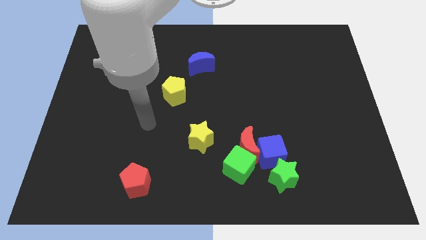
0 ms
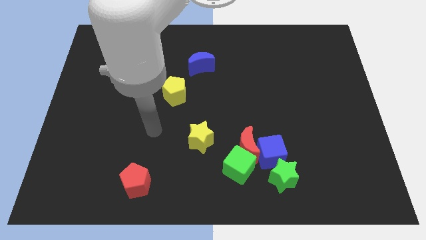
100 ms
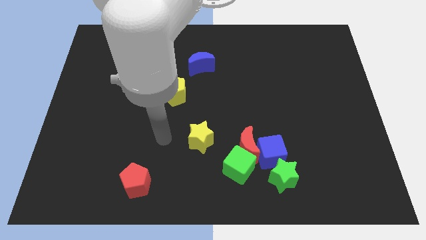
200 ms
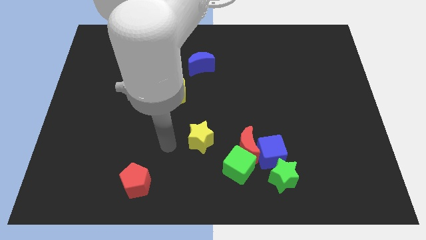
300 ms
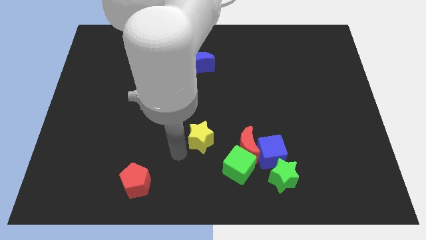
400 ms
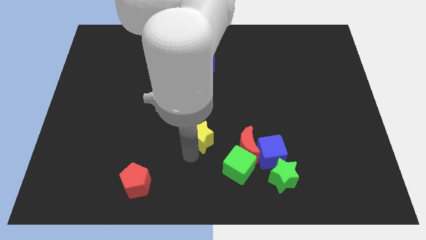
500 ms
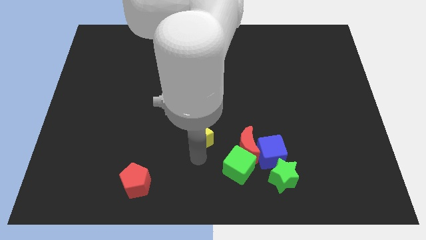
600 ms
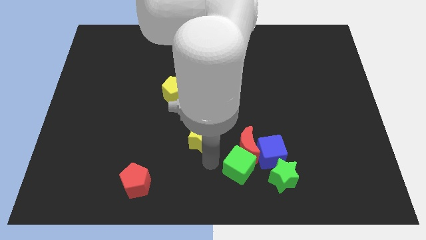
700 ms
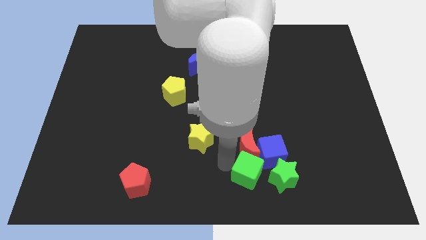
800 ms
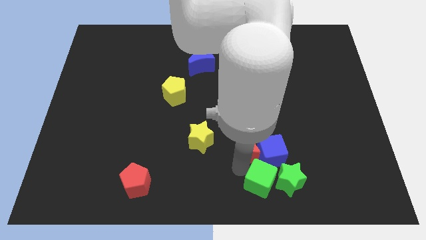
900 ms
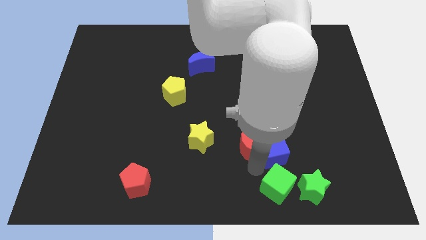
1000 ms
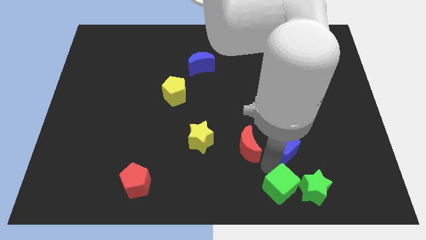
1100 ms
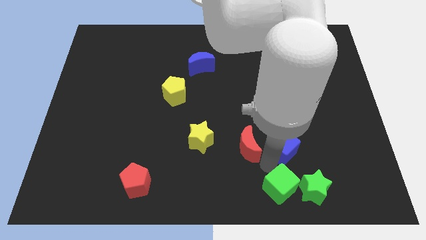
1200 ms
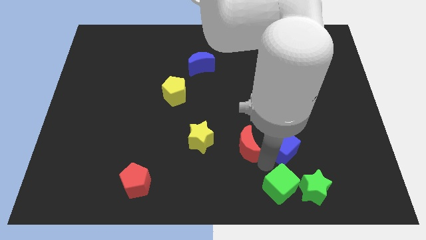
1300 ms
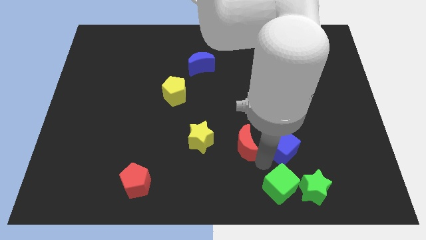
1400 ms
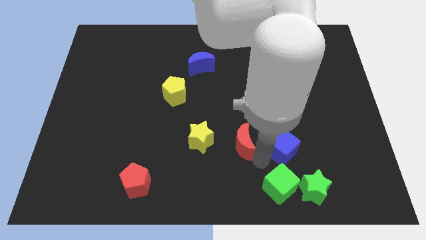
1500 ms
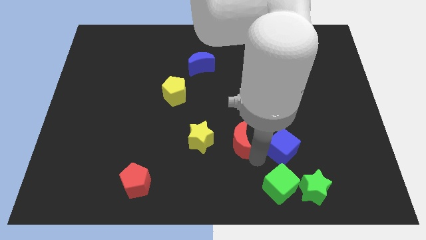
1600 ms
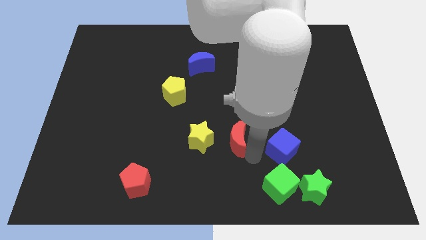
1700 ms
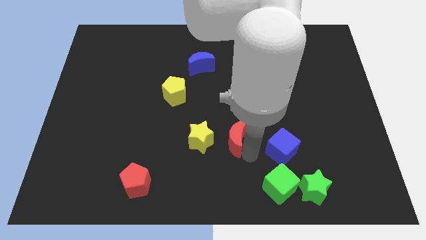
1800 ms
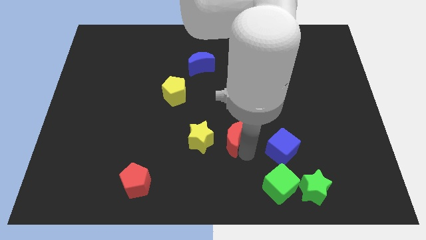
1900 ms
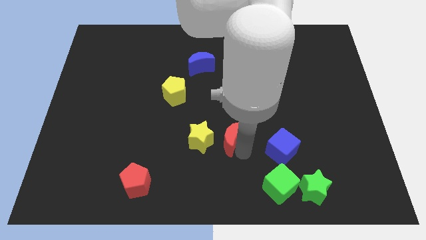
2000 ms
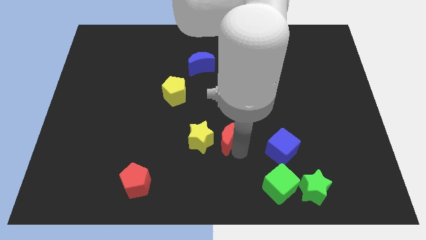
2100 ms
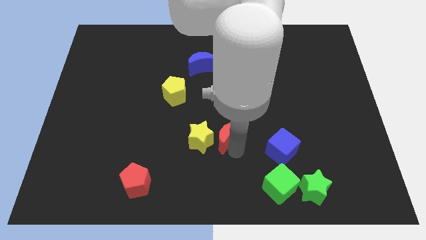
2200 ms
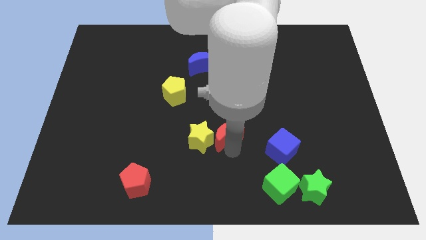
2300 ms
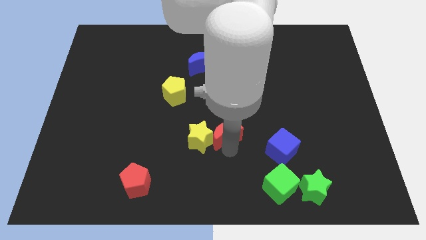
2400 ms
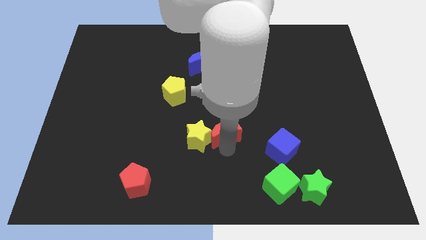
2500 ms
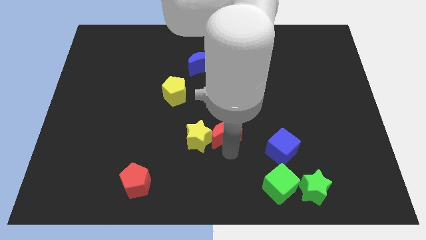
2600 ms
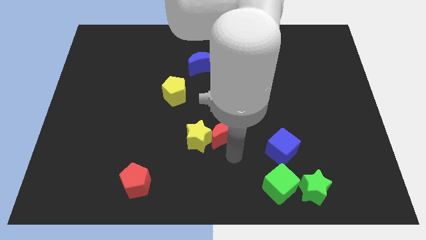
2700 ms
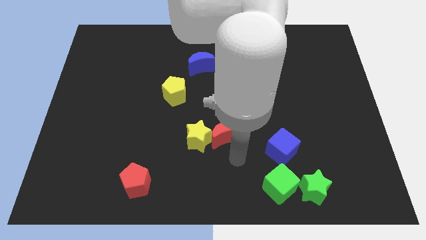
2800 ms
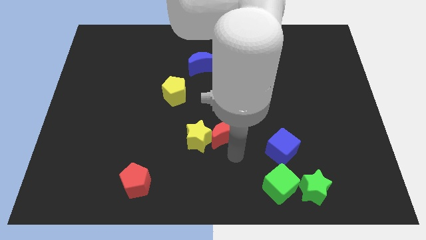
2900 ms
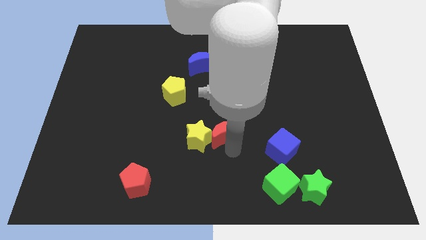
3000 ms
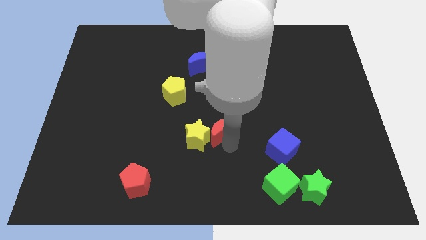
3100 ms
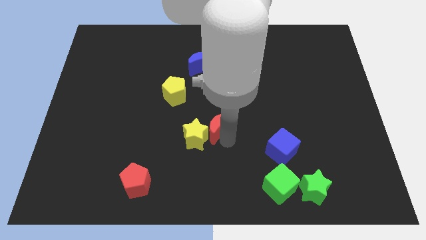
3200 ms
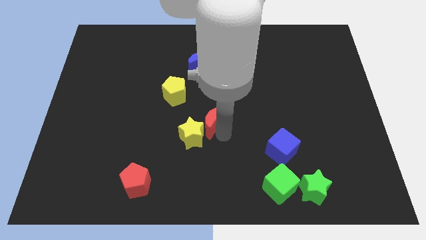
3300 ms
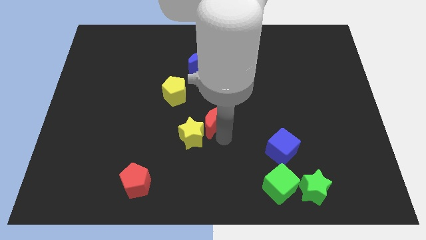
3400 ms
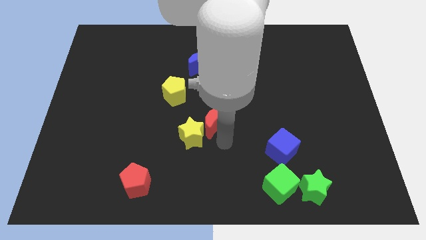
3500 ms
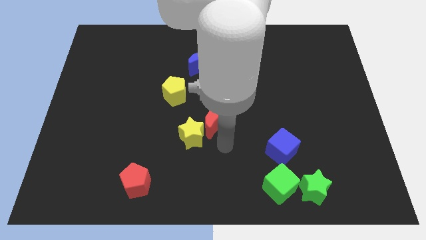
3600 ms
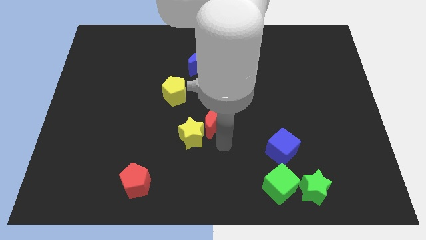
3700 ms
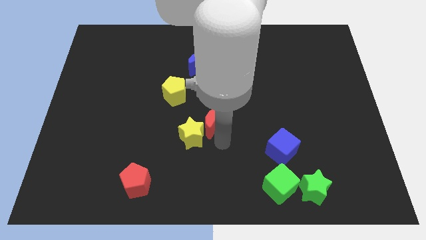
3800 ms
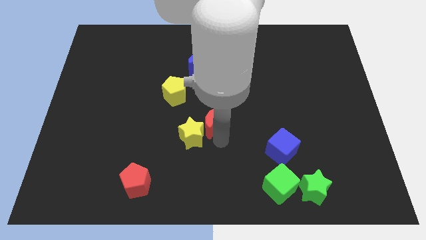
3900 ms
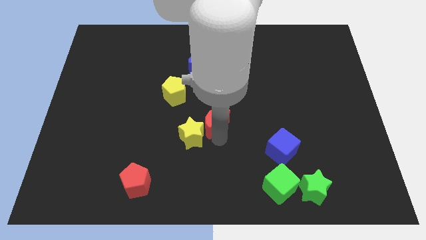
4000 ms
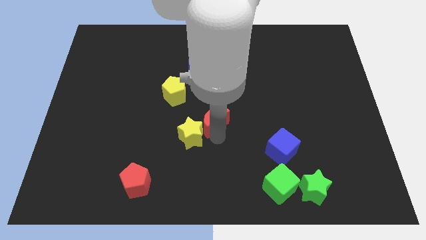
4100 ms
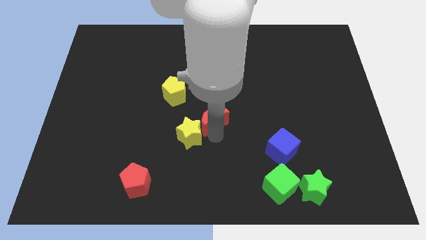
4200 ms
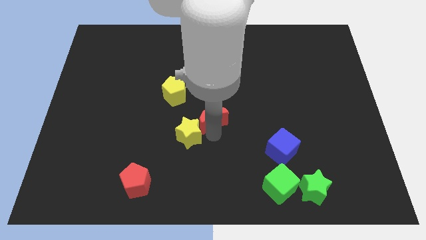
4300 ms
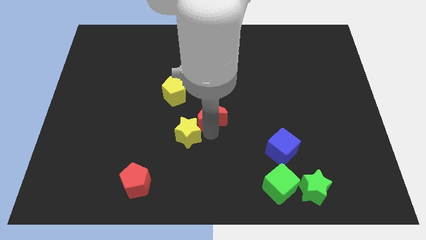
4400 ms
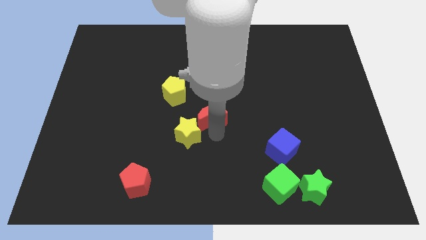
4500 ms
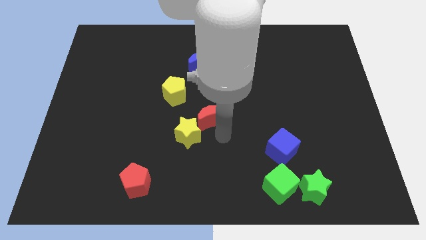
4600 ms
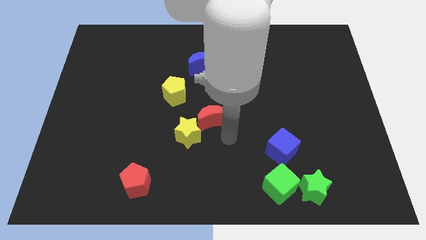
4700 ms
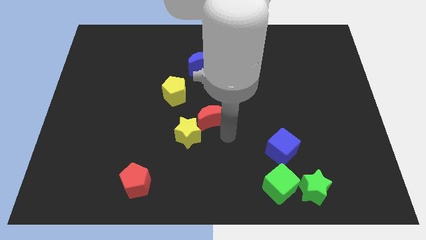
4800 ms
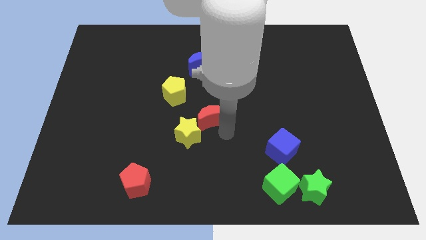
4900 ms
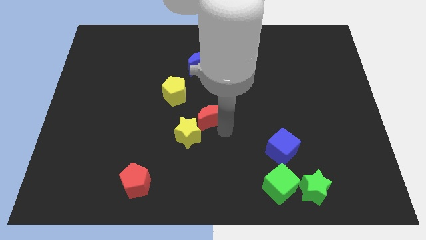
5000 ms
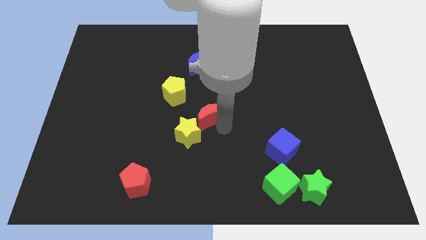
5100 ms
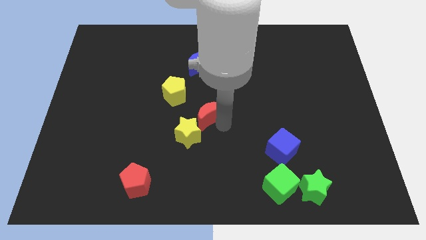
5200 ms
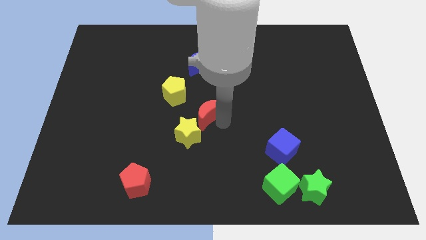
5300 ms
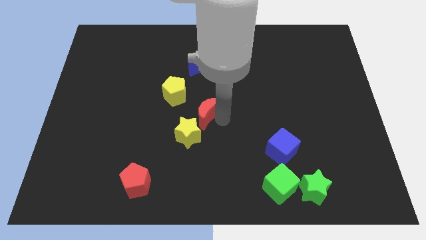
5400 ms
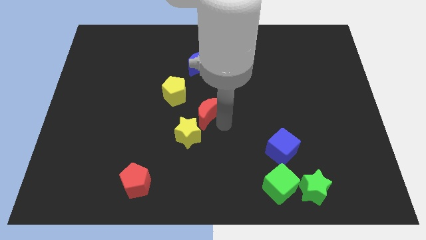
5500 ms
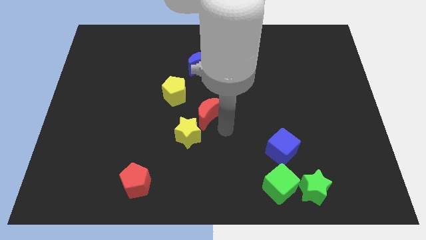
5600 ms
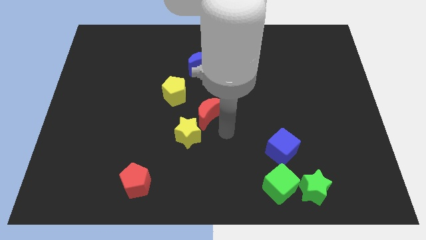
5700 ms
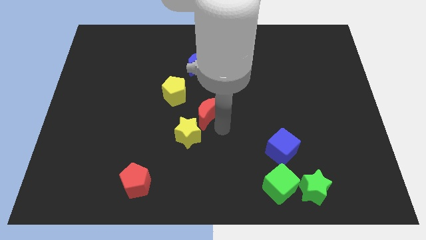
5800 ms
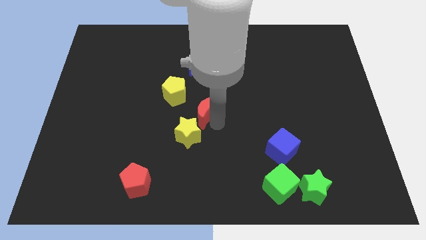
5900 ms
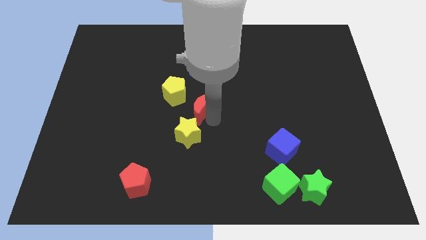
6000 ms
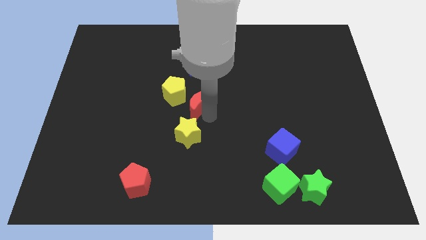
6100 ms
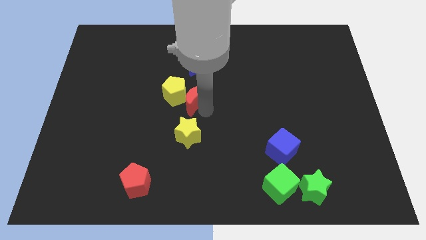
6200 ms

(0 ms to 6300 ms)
push the red moon close to the yellow pentagon

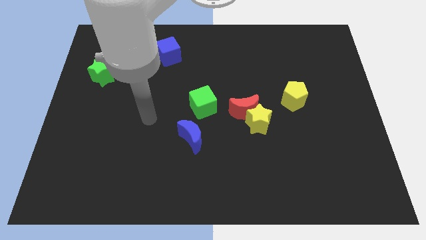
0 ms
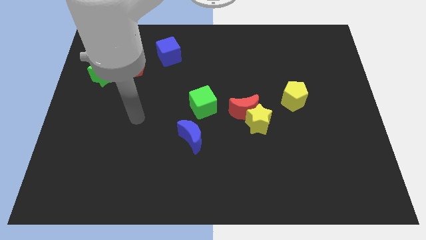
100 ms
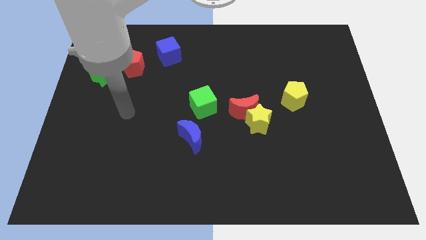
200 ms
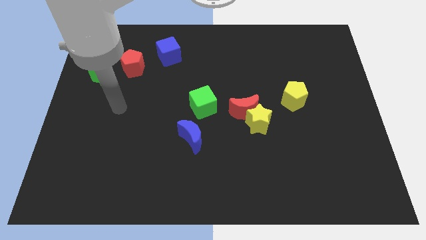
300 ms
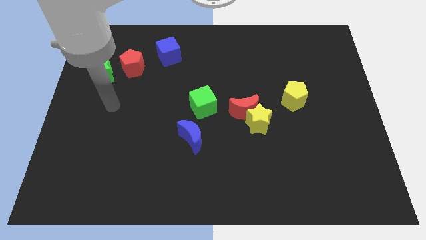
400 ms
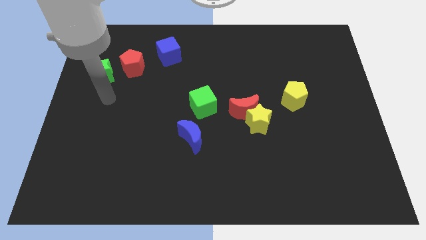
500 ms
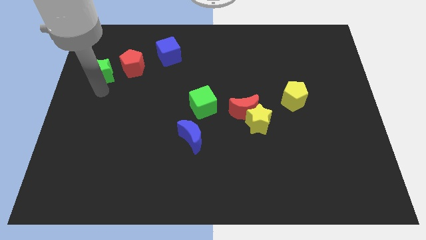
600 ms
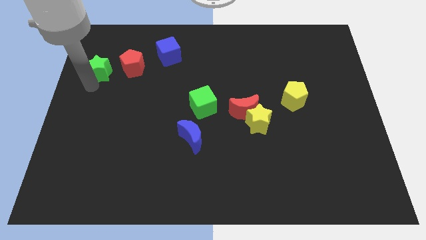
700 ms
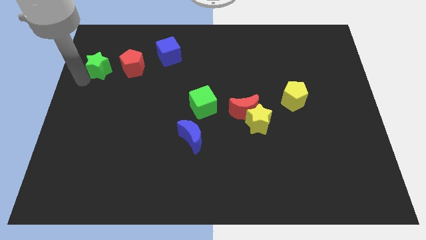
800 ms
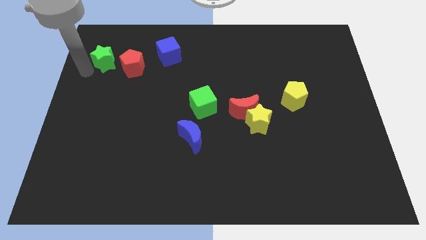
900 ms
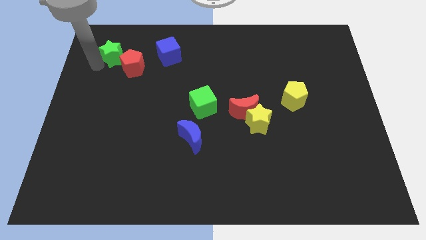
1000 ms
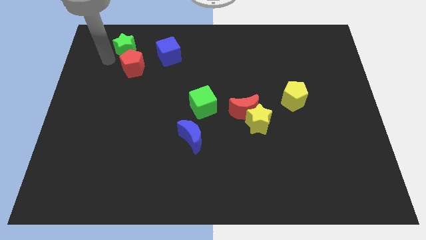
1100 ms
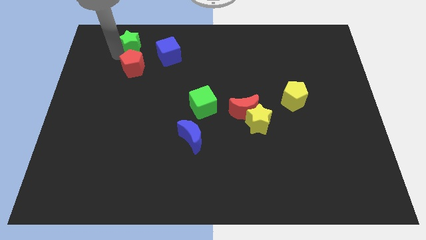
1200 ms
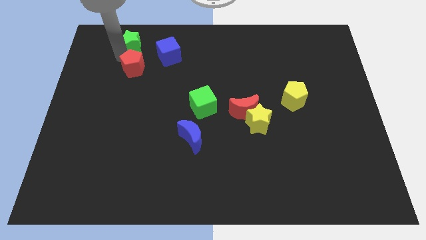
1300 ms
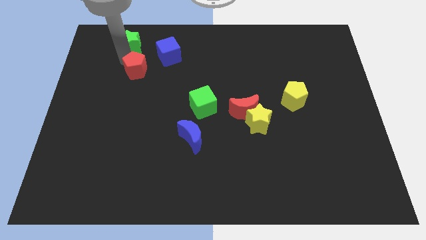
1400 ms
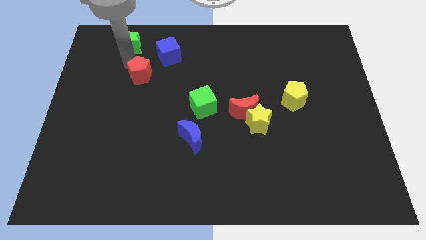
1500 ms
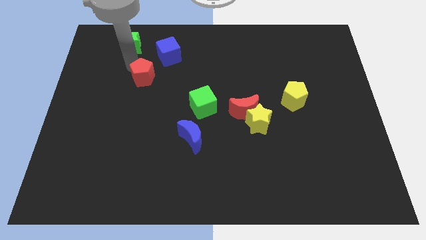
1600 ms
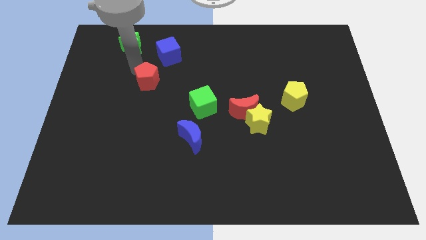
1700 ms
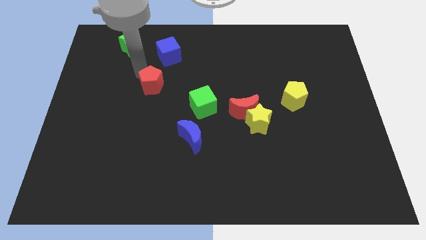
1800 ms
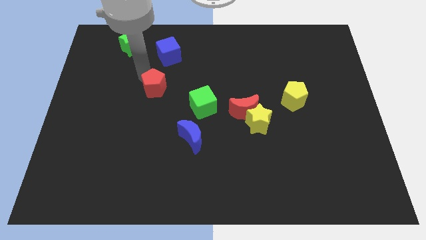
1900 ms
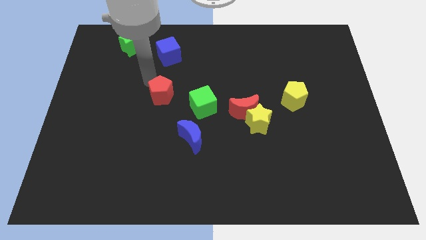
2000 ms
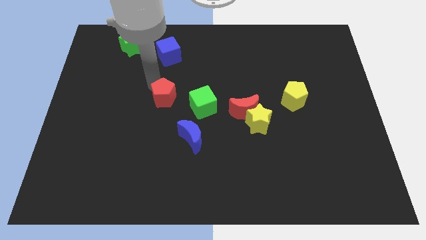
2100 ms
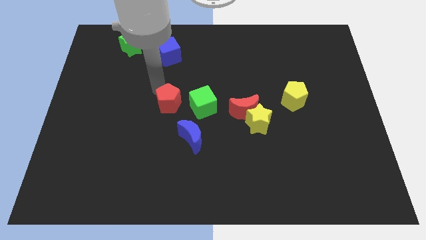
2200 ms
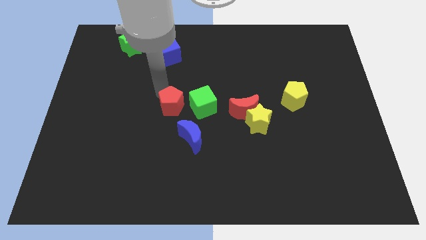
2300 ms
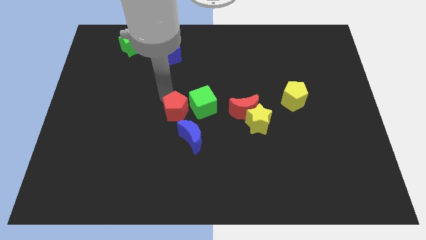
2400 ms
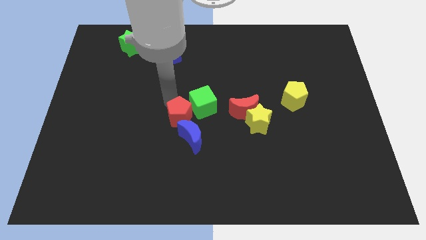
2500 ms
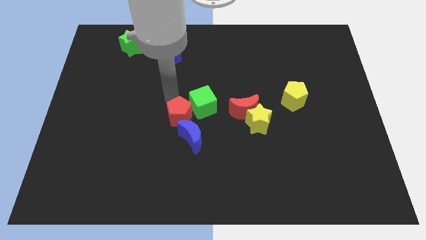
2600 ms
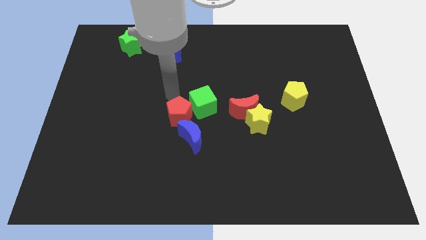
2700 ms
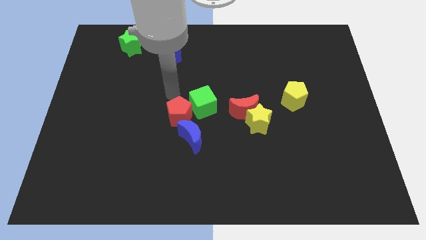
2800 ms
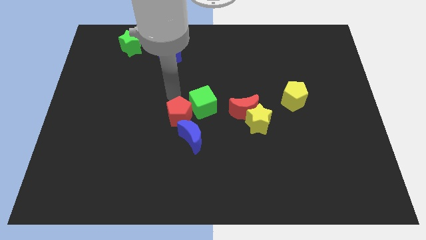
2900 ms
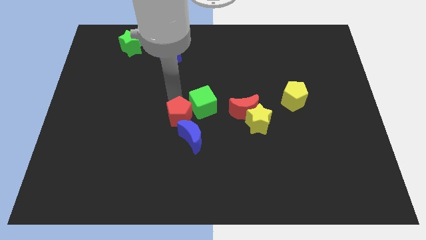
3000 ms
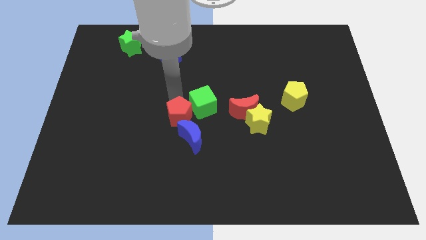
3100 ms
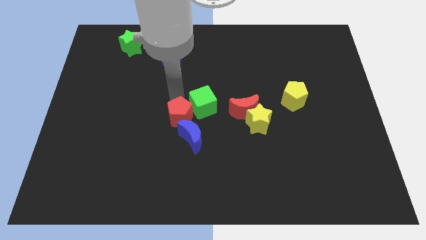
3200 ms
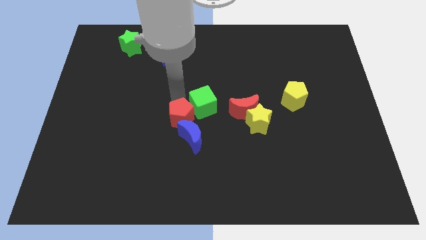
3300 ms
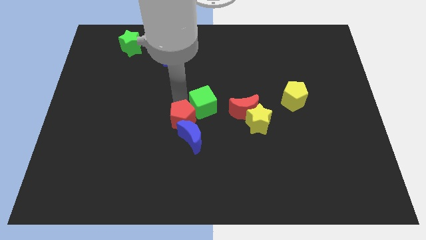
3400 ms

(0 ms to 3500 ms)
slide the red pentagon towards the blue moon
